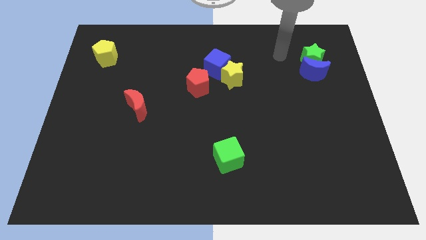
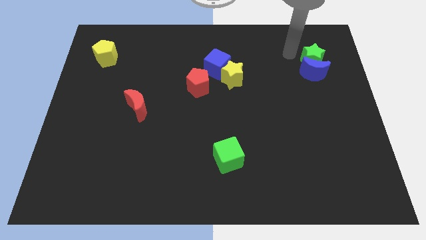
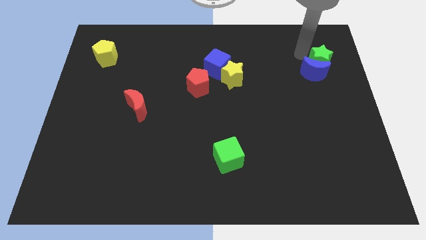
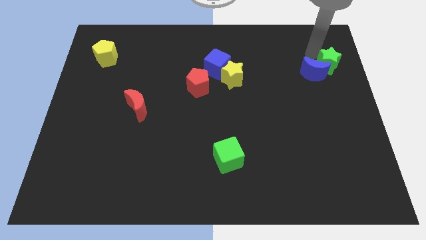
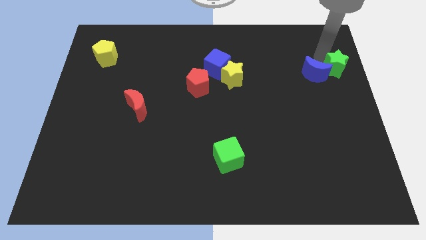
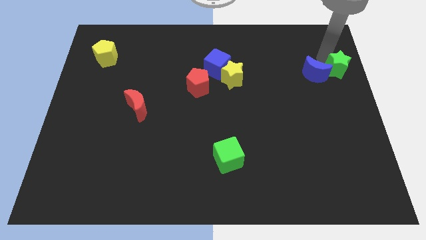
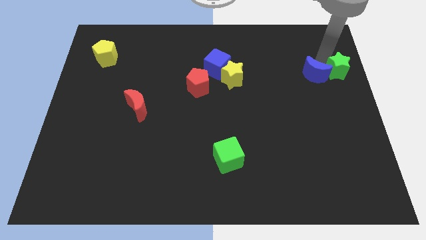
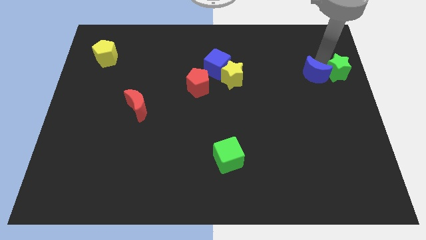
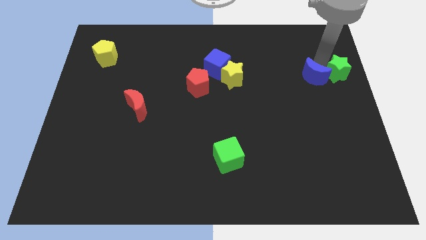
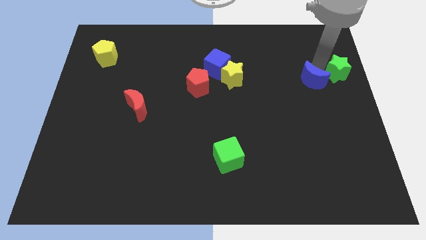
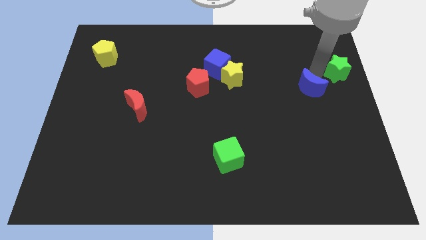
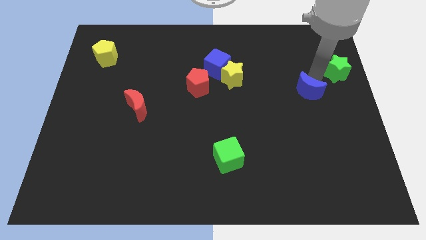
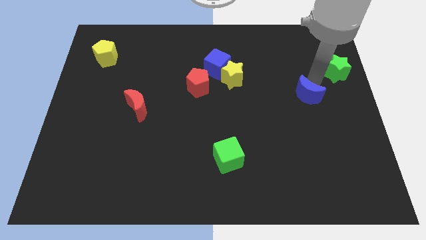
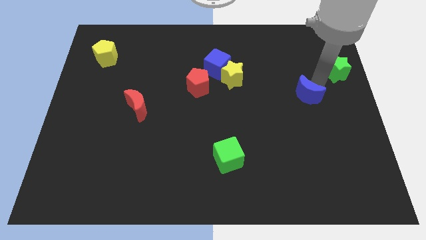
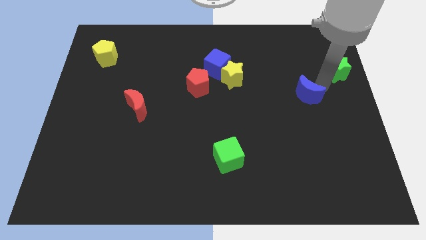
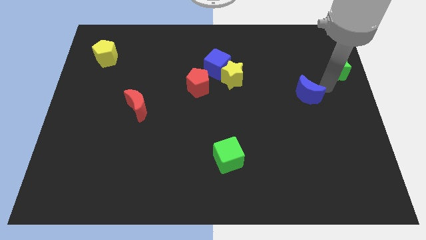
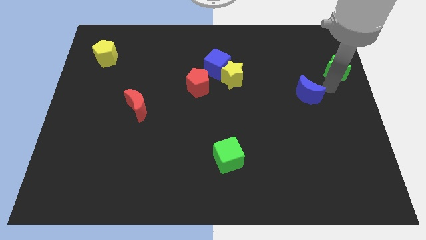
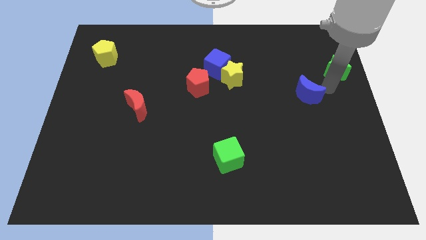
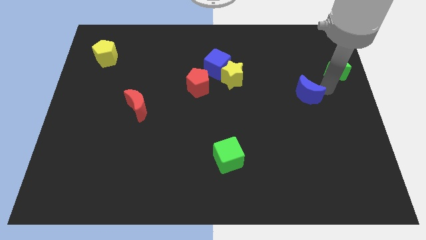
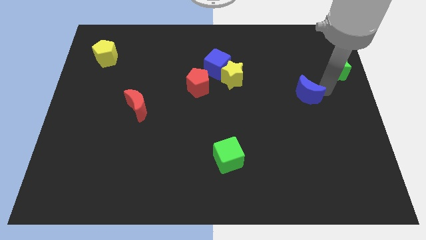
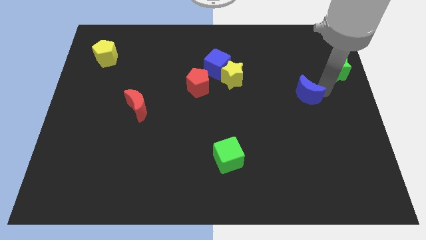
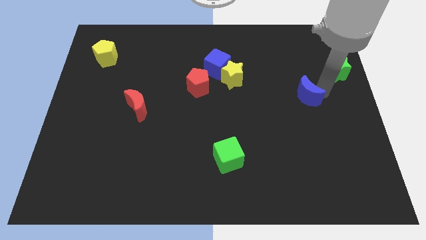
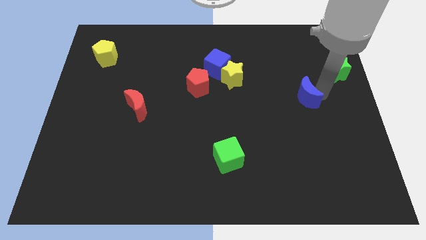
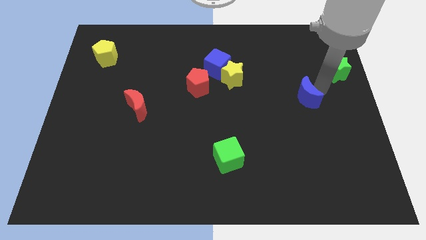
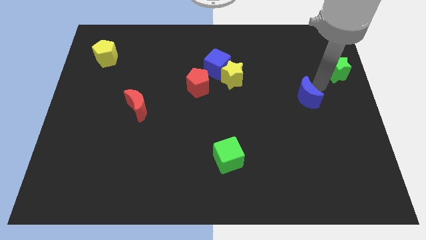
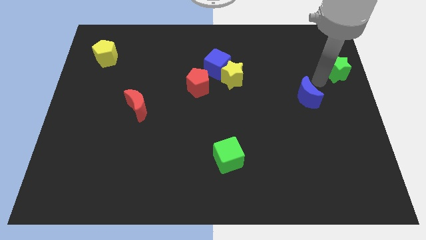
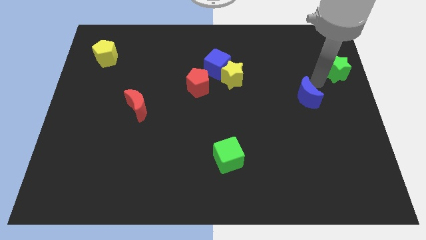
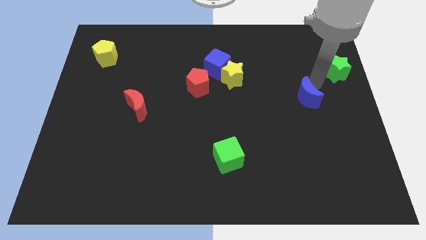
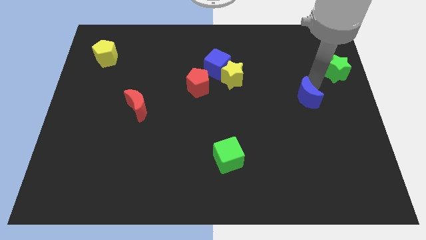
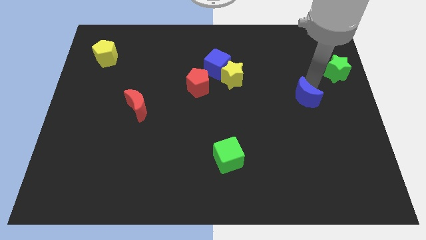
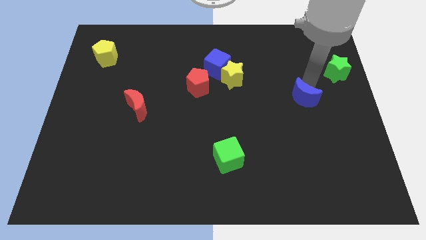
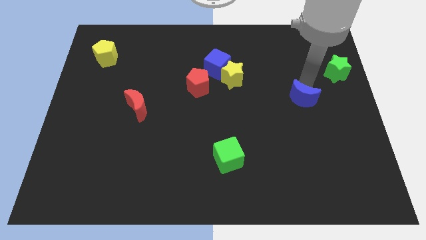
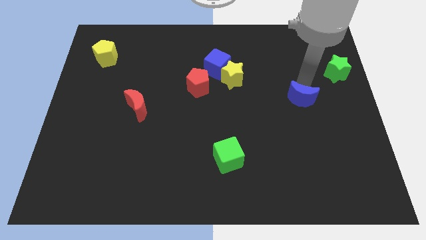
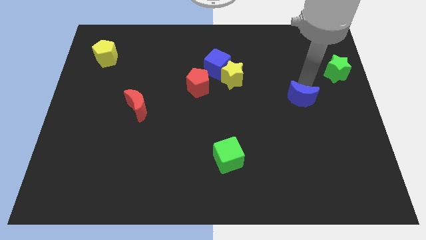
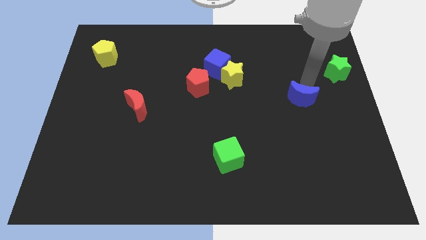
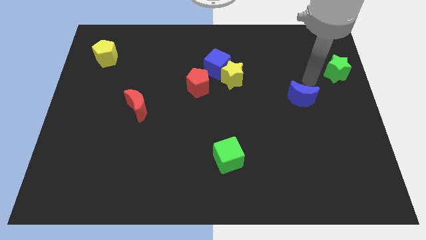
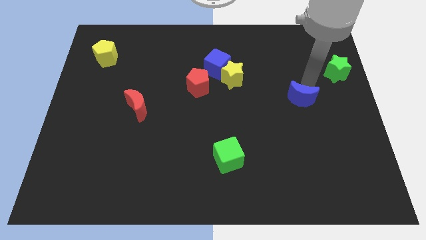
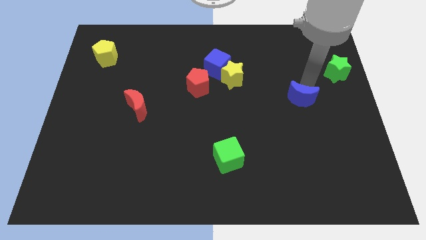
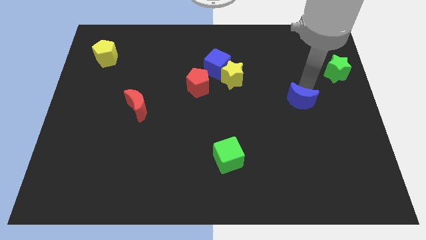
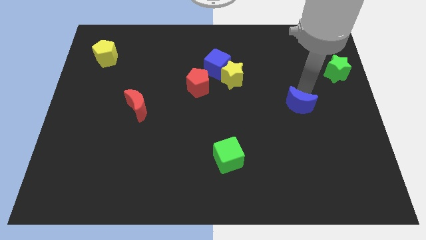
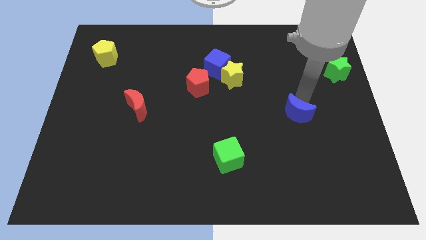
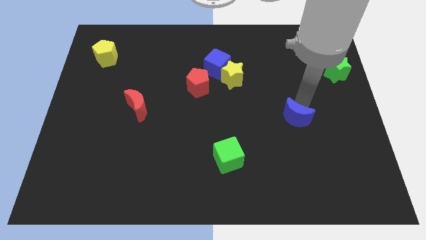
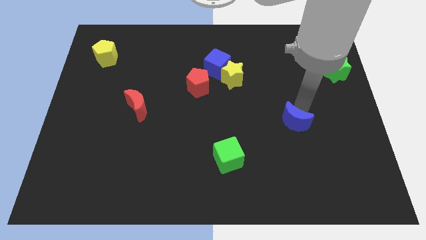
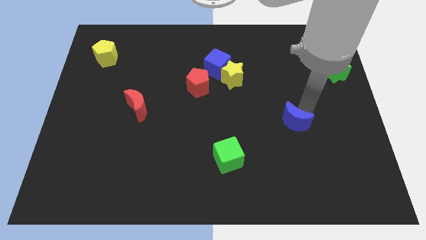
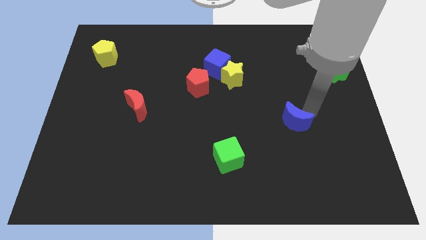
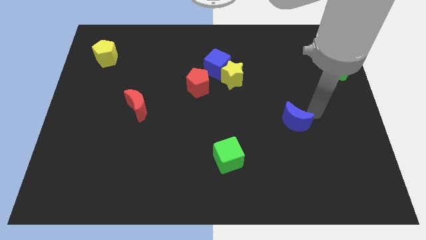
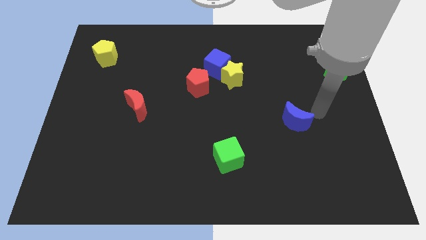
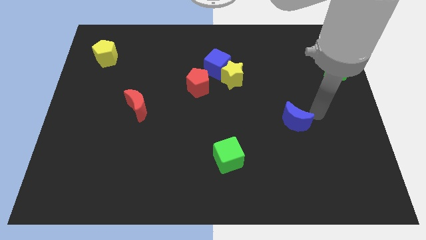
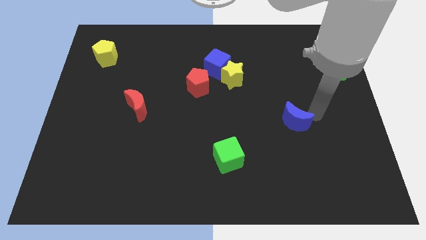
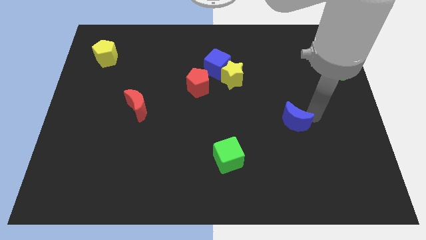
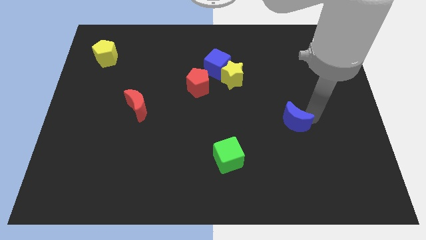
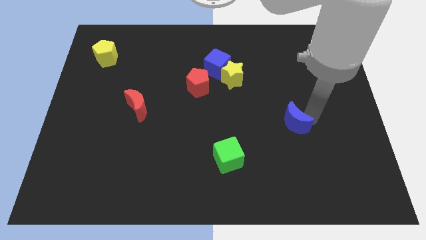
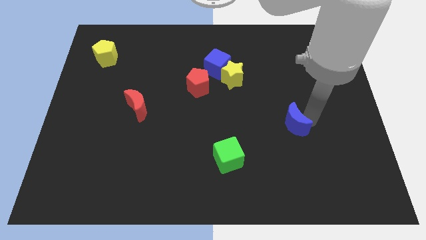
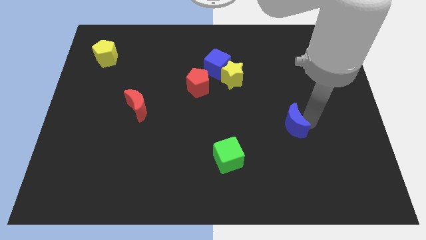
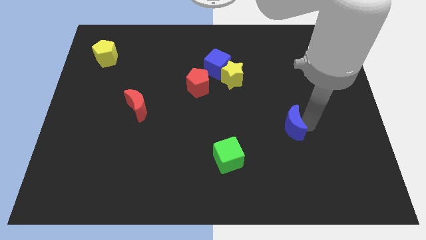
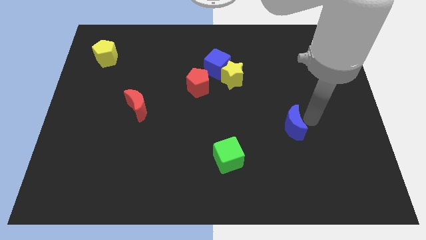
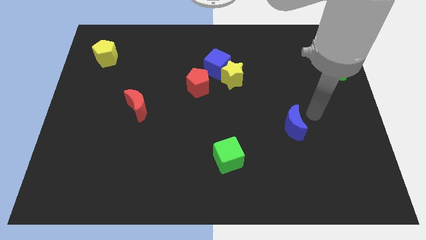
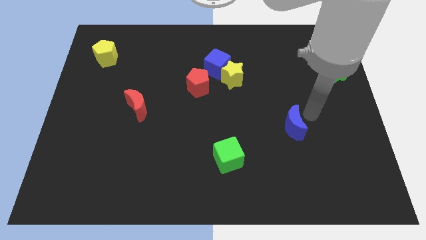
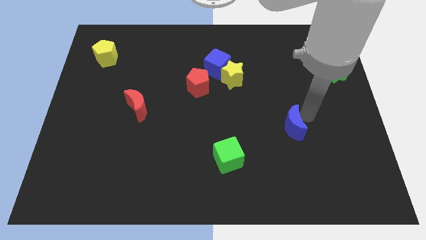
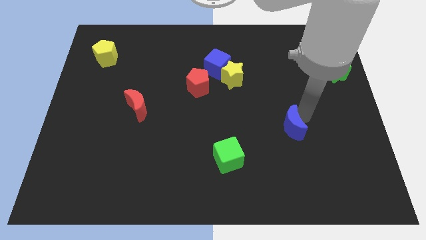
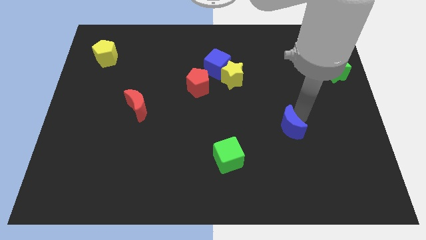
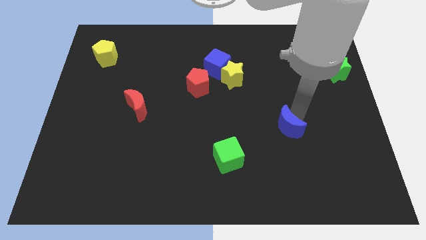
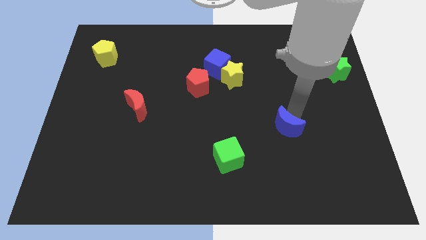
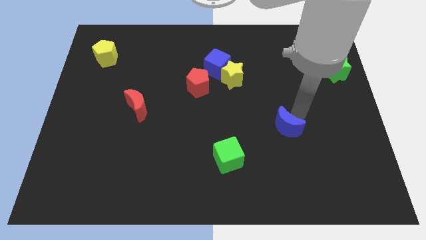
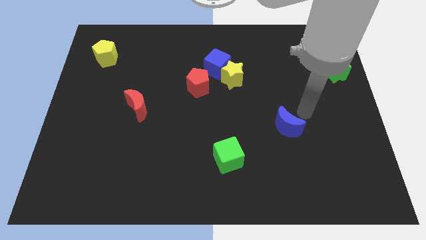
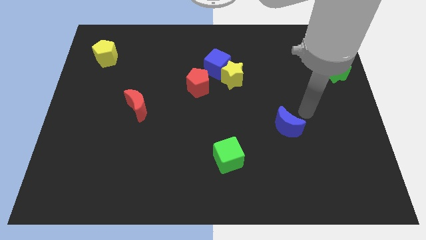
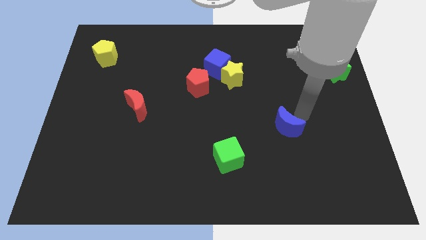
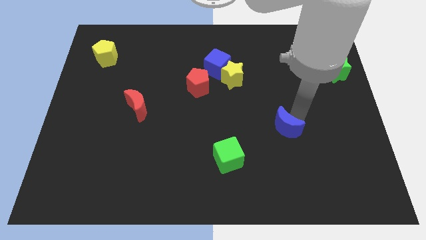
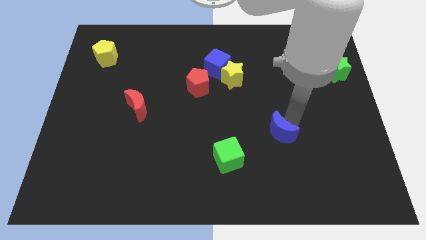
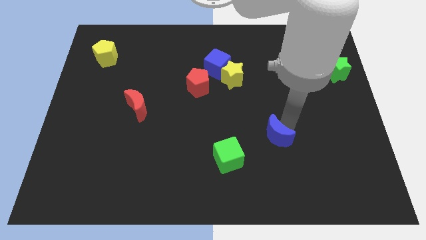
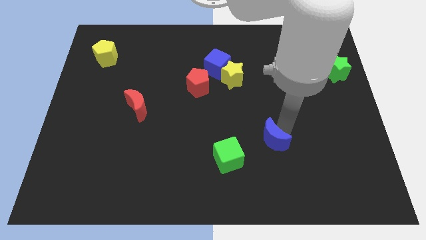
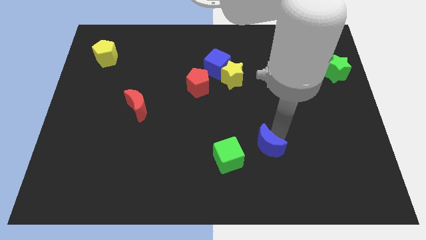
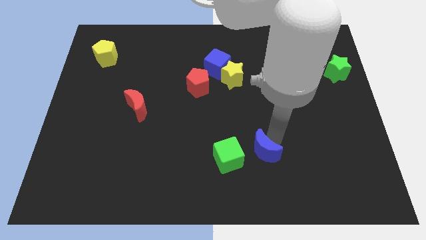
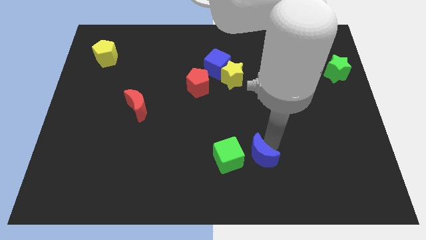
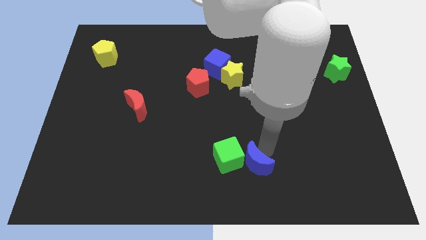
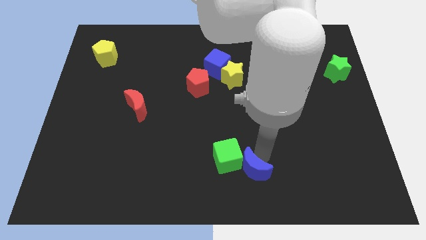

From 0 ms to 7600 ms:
slide the blue moon to the bottom
